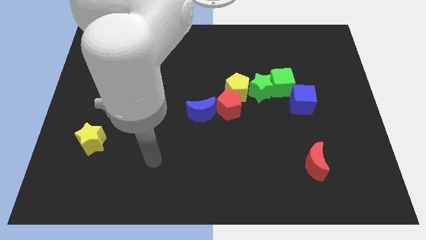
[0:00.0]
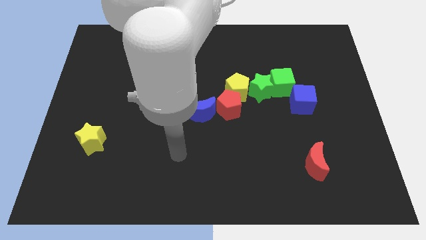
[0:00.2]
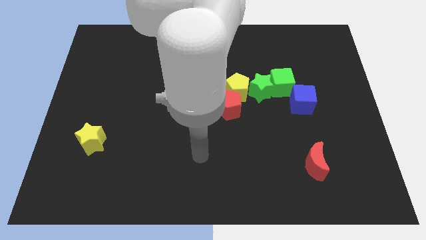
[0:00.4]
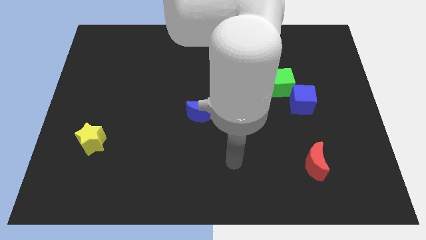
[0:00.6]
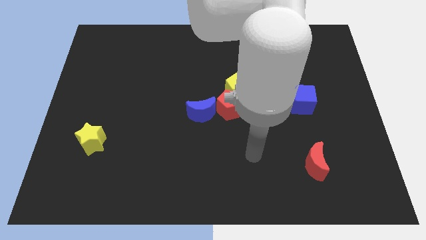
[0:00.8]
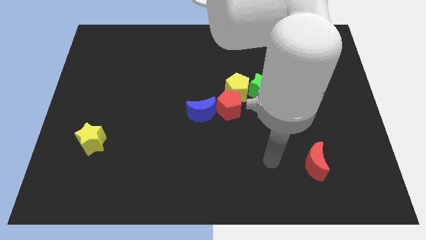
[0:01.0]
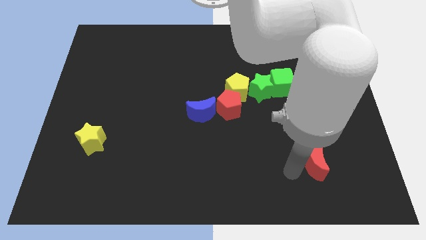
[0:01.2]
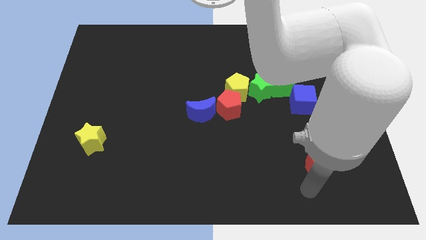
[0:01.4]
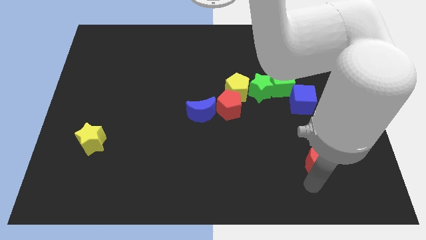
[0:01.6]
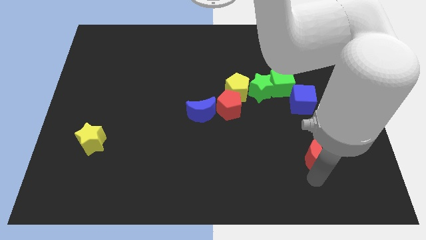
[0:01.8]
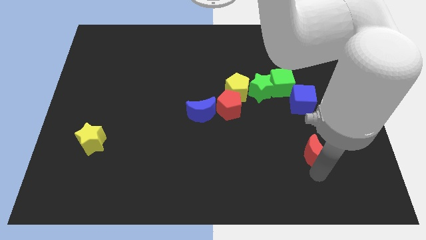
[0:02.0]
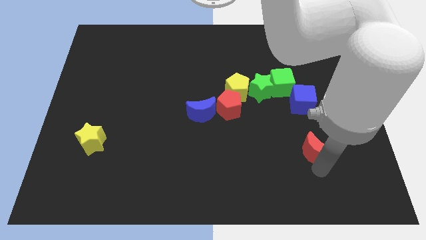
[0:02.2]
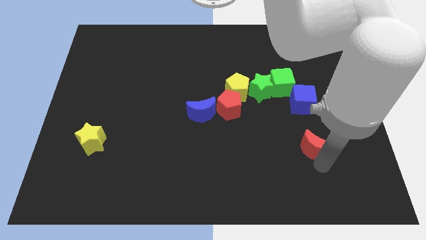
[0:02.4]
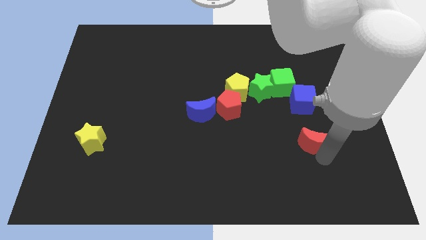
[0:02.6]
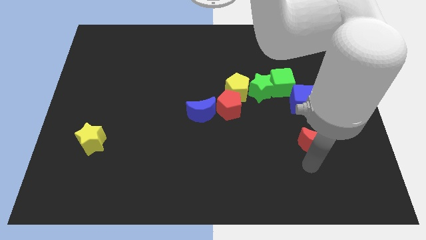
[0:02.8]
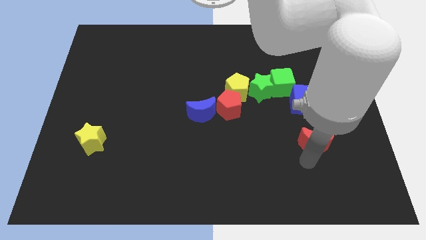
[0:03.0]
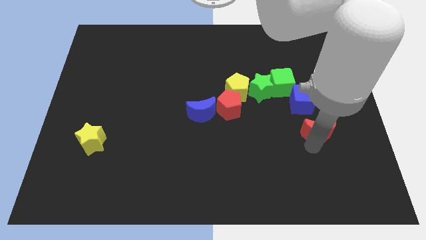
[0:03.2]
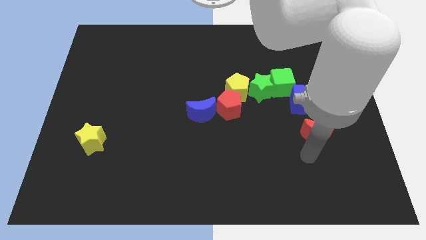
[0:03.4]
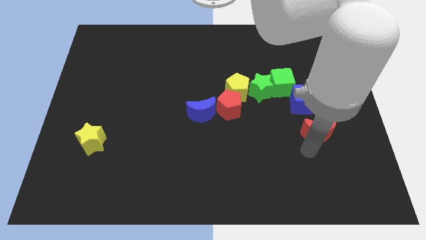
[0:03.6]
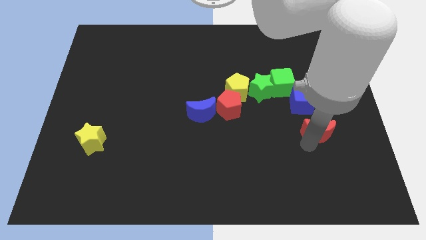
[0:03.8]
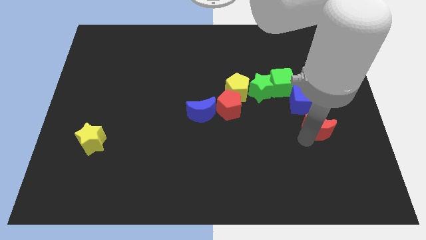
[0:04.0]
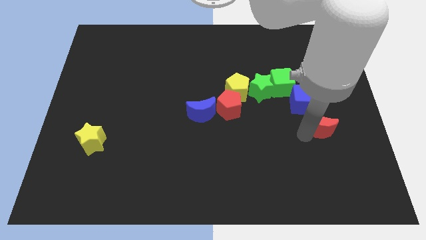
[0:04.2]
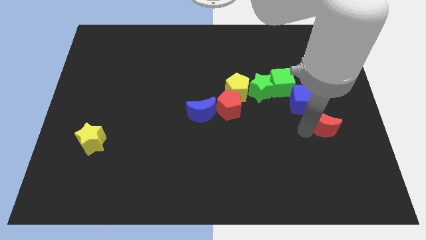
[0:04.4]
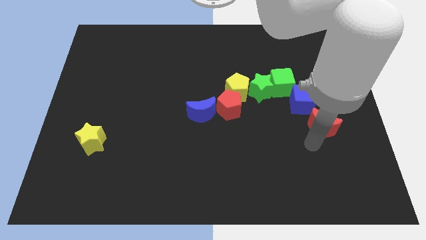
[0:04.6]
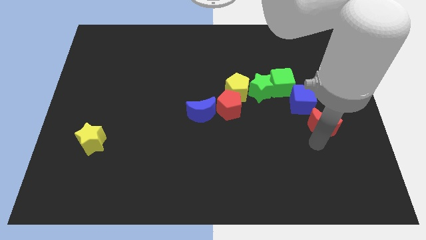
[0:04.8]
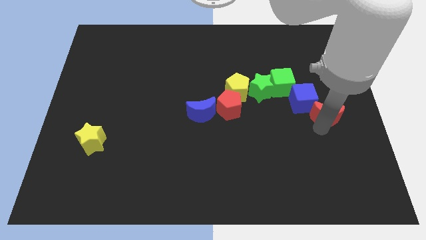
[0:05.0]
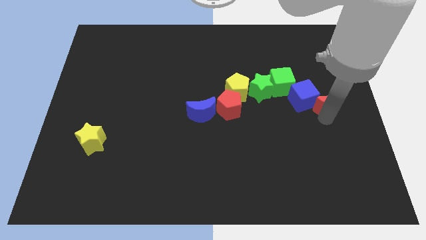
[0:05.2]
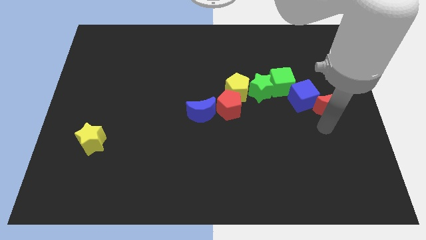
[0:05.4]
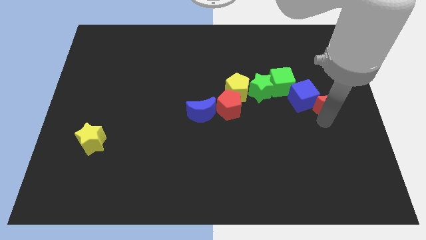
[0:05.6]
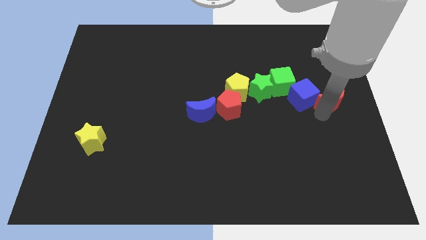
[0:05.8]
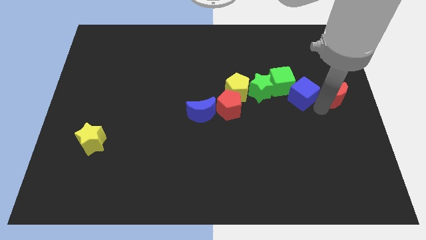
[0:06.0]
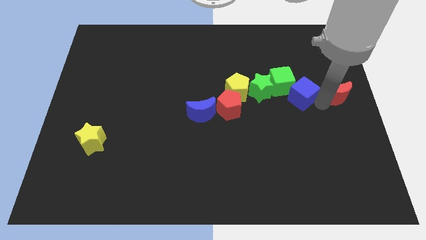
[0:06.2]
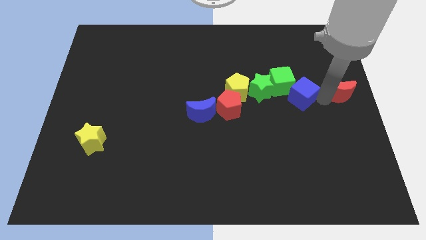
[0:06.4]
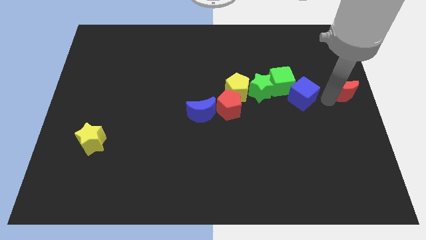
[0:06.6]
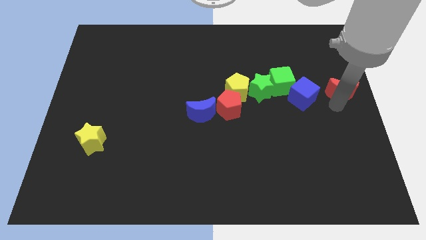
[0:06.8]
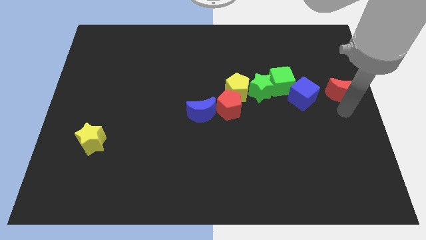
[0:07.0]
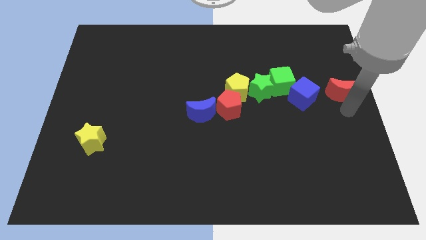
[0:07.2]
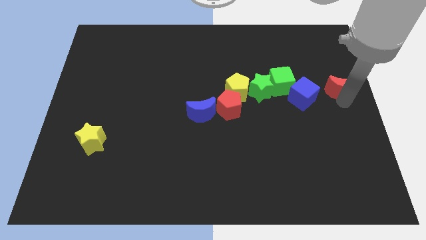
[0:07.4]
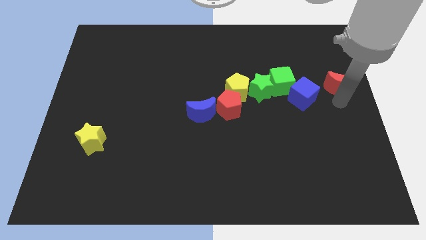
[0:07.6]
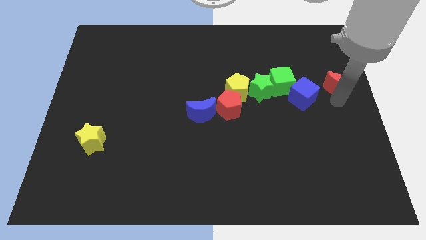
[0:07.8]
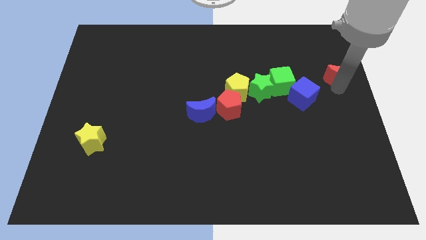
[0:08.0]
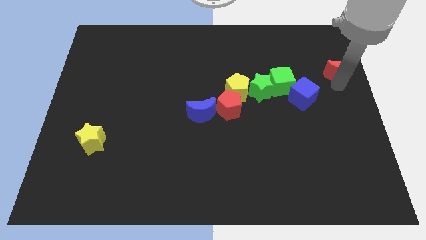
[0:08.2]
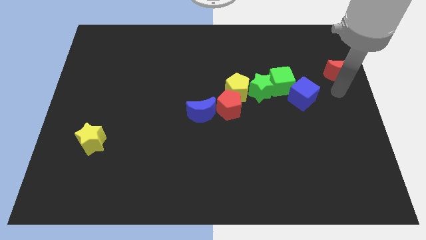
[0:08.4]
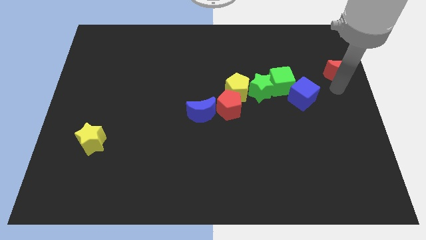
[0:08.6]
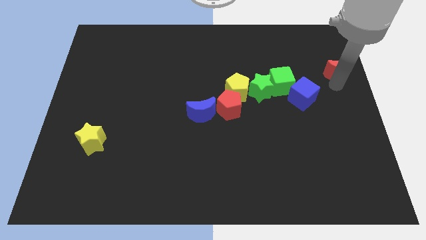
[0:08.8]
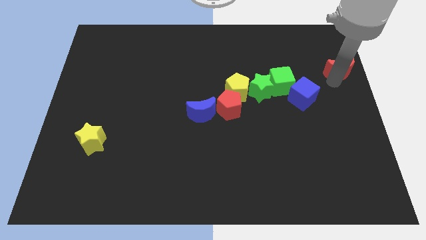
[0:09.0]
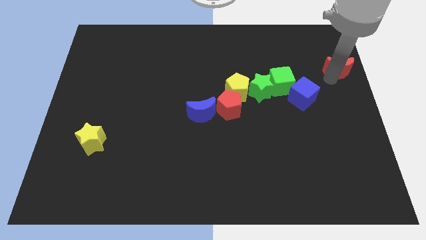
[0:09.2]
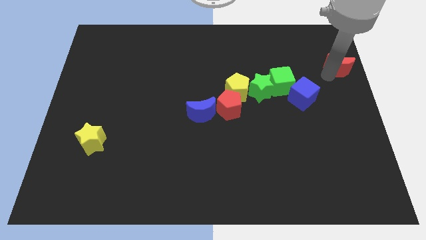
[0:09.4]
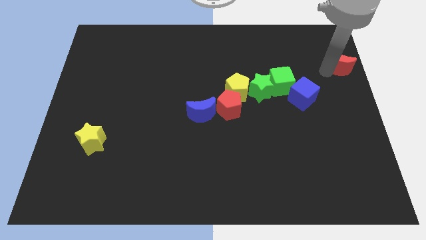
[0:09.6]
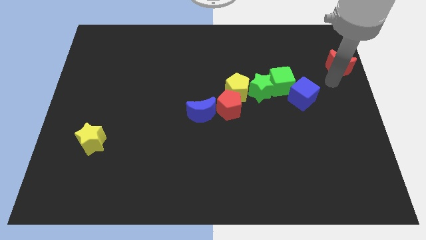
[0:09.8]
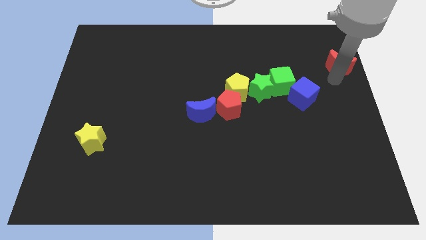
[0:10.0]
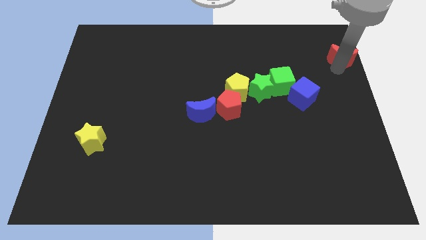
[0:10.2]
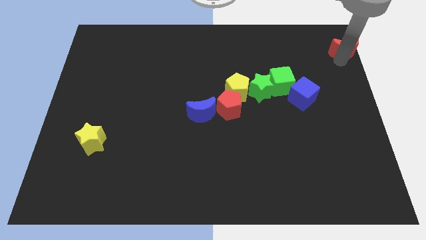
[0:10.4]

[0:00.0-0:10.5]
slide the red moon to the top right corner

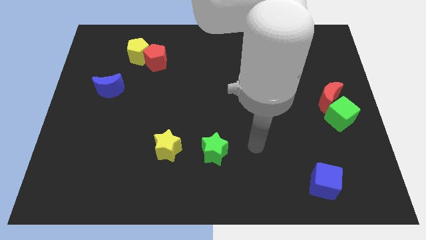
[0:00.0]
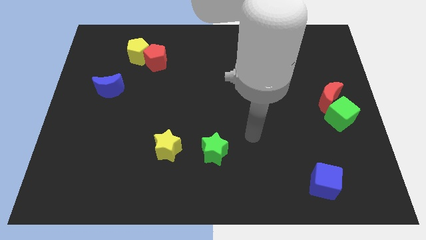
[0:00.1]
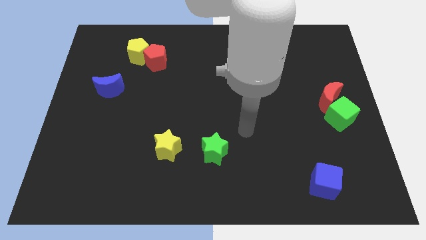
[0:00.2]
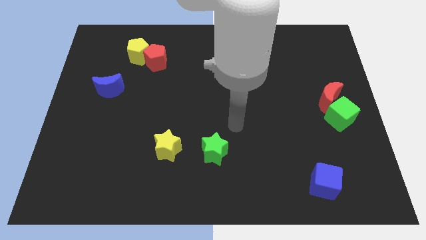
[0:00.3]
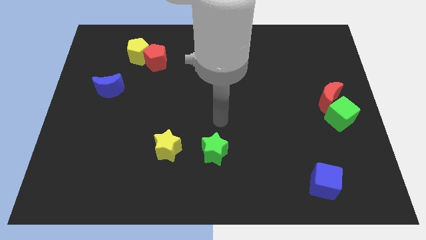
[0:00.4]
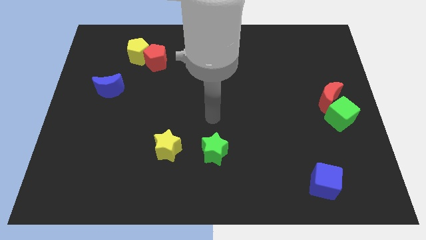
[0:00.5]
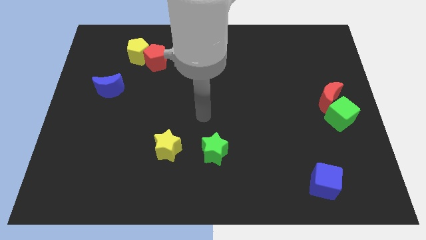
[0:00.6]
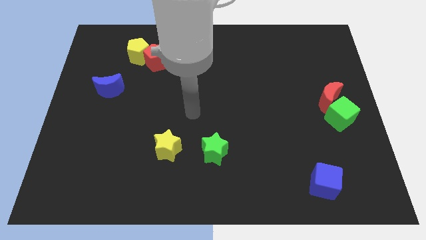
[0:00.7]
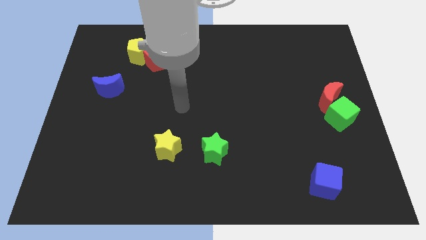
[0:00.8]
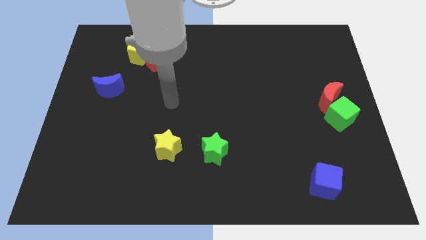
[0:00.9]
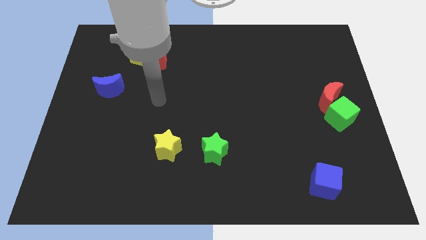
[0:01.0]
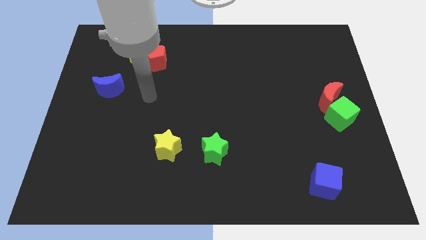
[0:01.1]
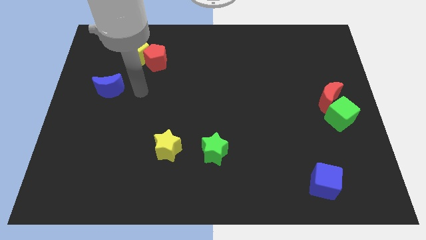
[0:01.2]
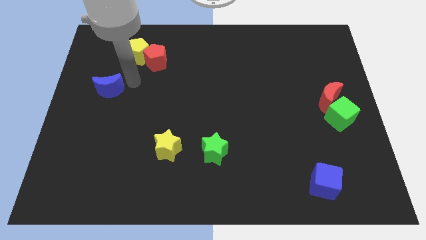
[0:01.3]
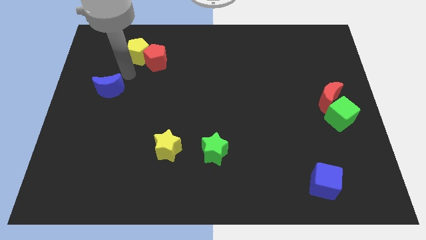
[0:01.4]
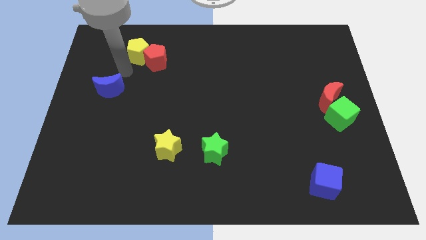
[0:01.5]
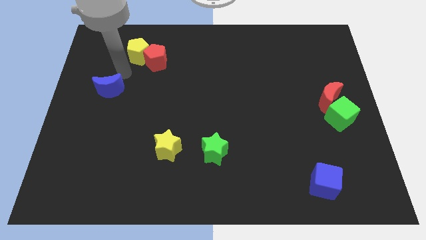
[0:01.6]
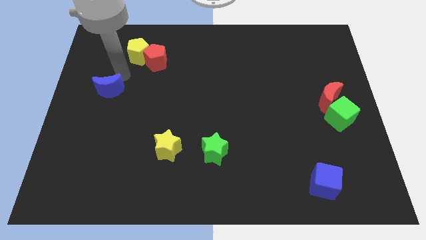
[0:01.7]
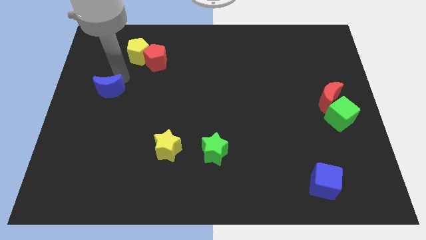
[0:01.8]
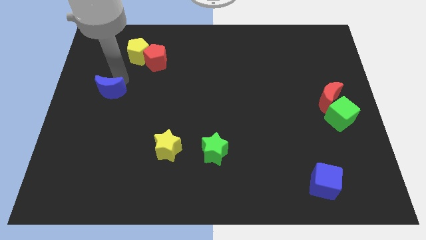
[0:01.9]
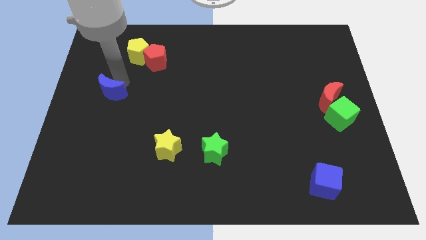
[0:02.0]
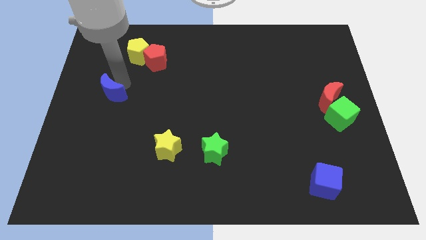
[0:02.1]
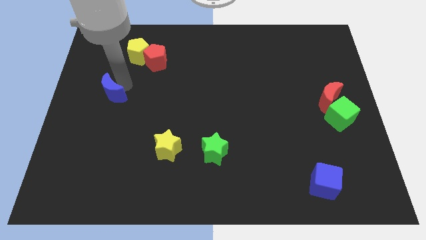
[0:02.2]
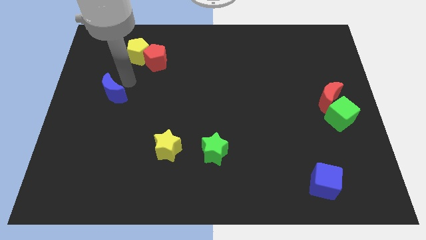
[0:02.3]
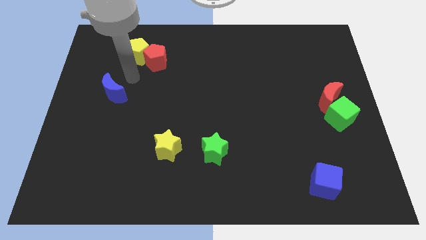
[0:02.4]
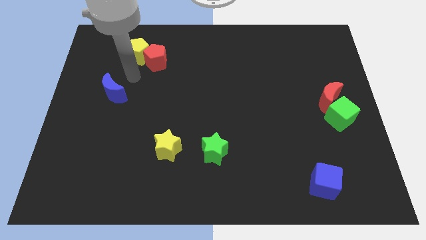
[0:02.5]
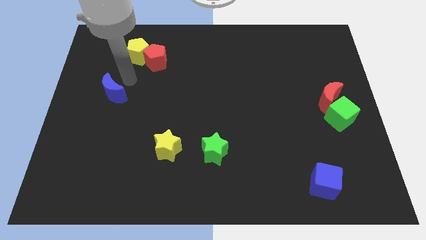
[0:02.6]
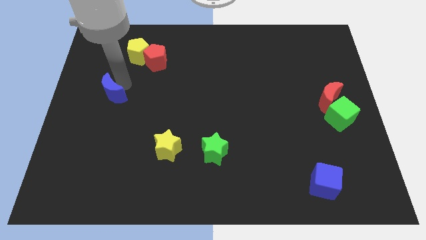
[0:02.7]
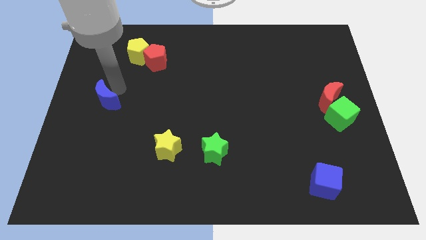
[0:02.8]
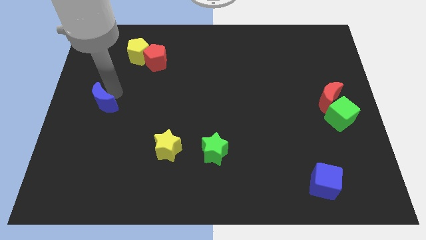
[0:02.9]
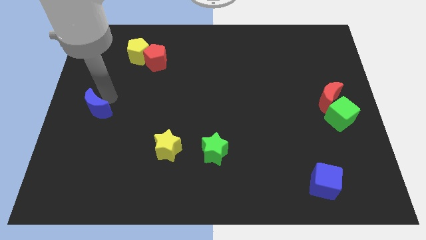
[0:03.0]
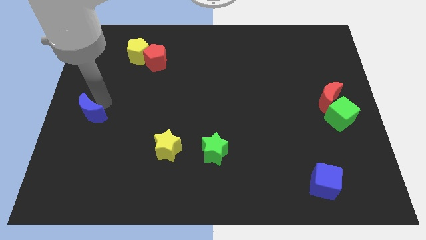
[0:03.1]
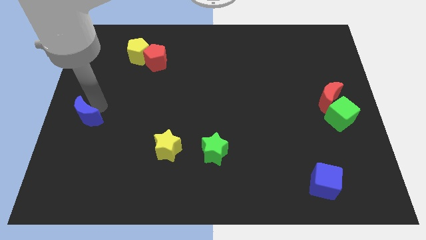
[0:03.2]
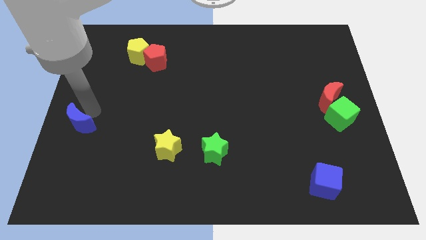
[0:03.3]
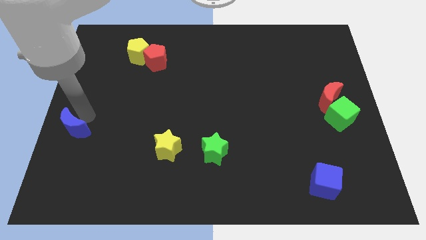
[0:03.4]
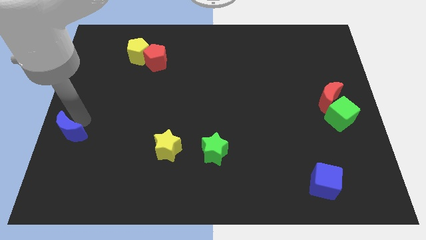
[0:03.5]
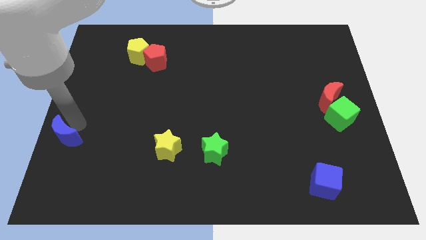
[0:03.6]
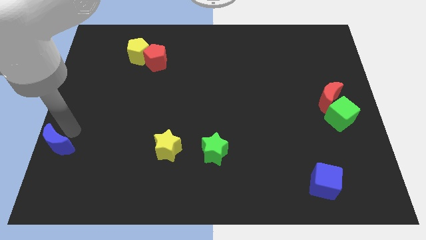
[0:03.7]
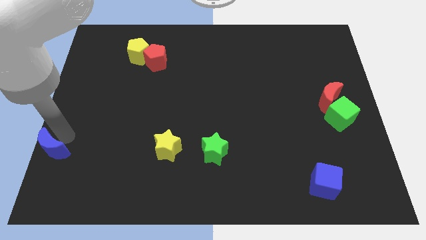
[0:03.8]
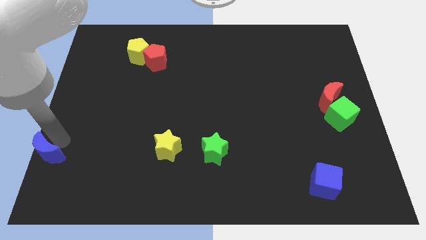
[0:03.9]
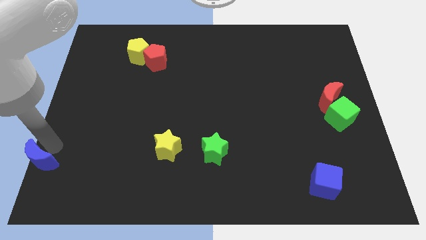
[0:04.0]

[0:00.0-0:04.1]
push the blue moon to the bottom left corner
